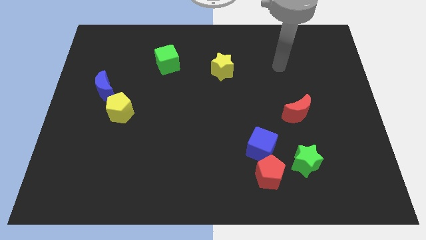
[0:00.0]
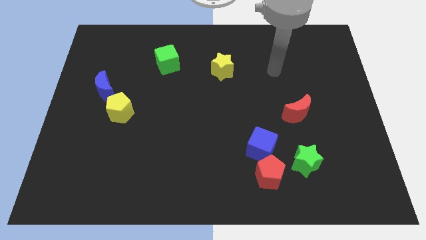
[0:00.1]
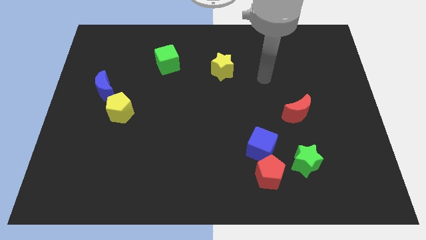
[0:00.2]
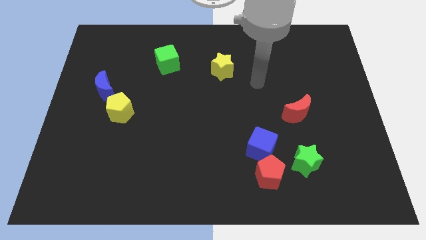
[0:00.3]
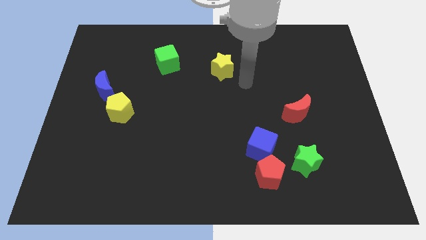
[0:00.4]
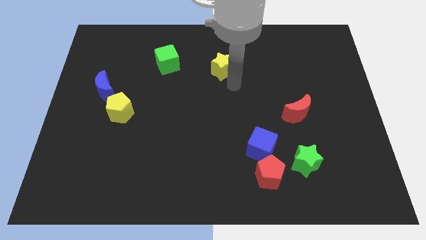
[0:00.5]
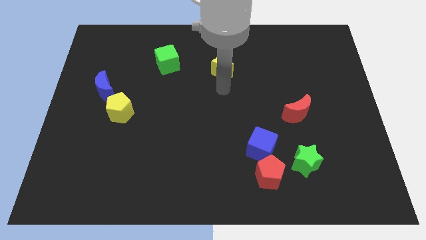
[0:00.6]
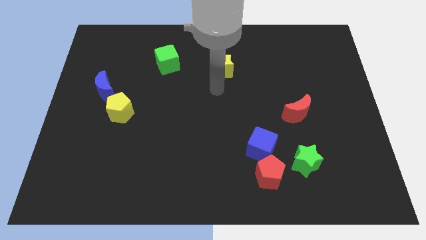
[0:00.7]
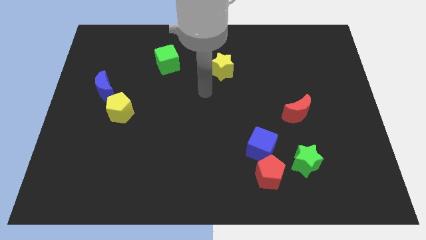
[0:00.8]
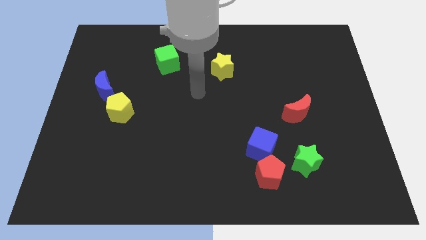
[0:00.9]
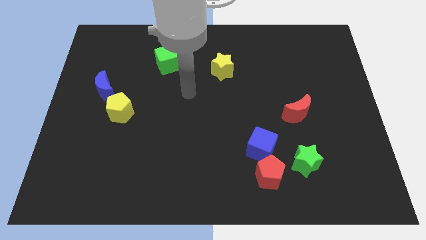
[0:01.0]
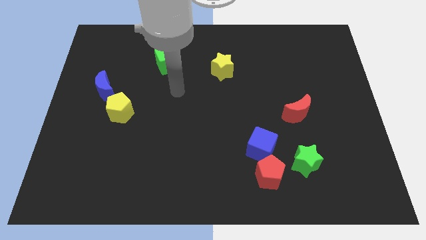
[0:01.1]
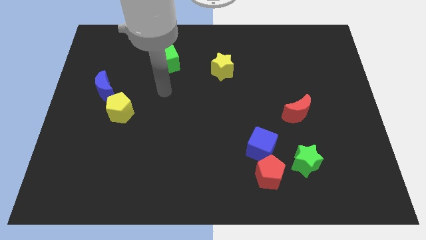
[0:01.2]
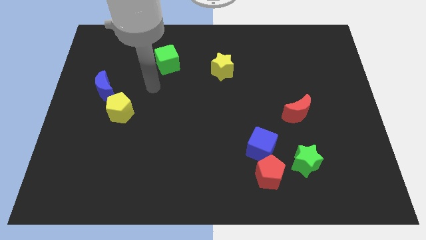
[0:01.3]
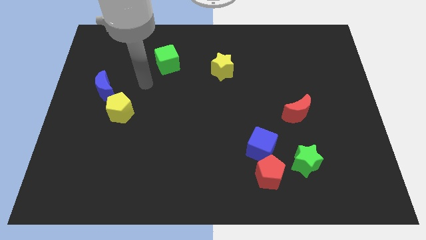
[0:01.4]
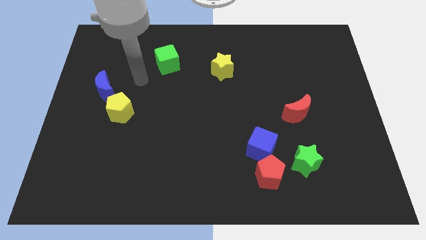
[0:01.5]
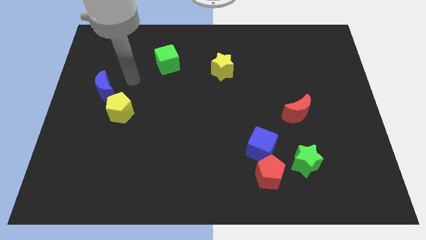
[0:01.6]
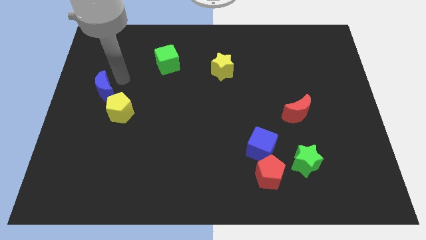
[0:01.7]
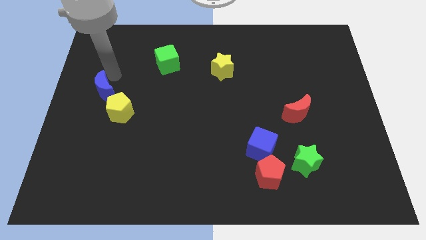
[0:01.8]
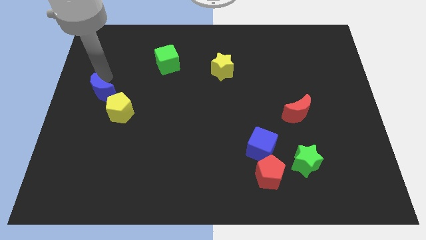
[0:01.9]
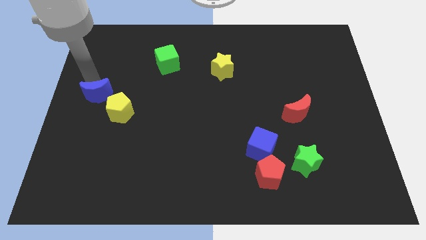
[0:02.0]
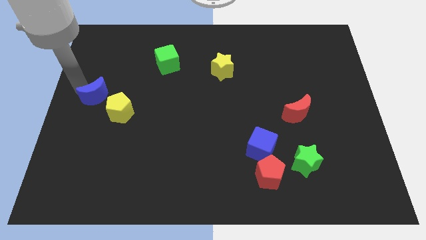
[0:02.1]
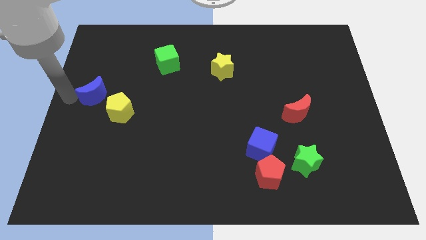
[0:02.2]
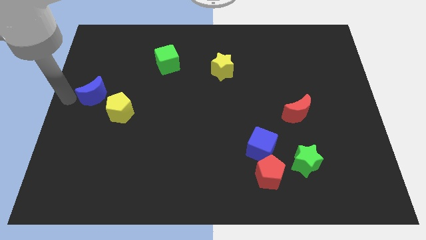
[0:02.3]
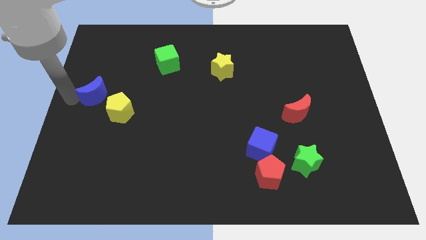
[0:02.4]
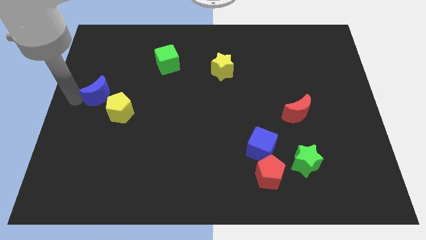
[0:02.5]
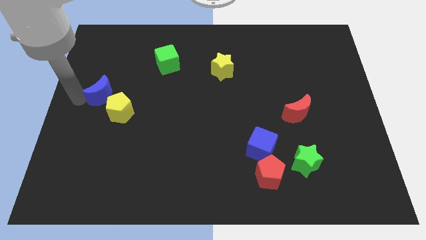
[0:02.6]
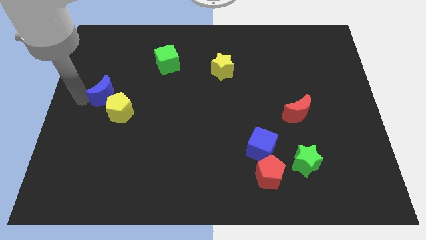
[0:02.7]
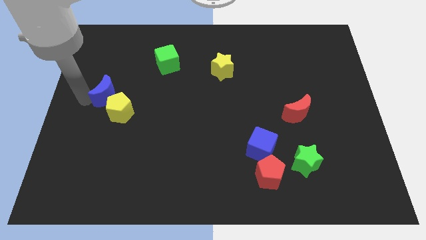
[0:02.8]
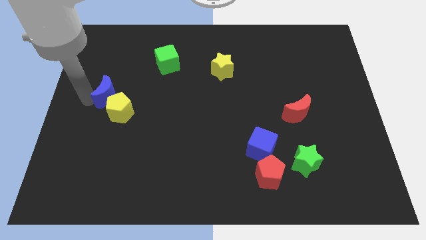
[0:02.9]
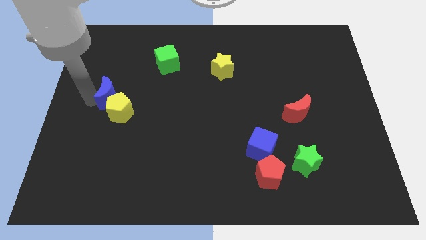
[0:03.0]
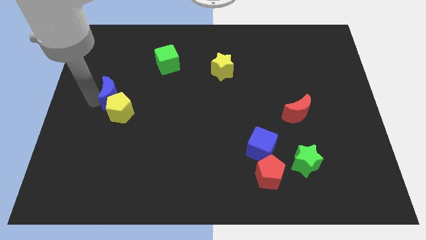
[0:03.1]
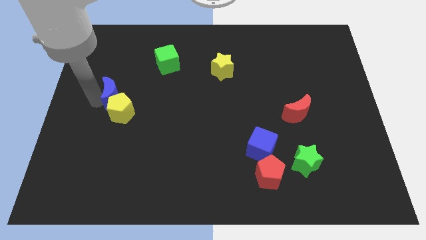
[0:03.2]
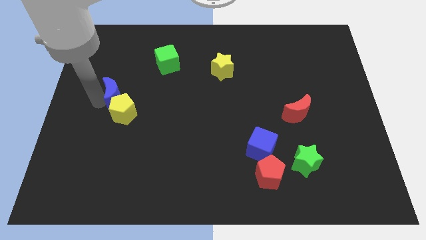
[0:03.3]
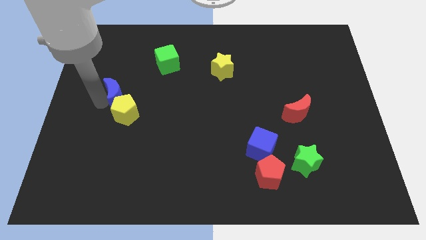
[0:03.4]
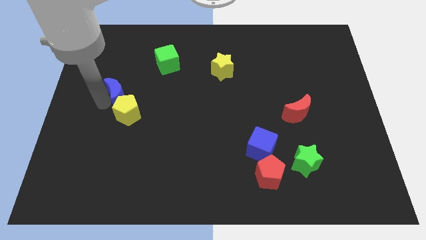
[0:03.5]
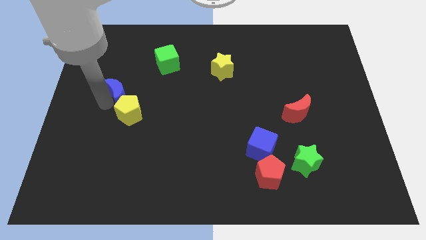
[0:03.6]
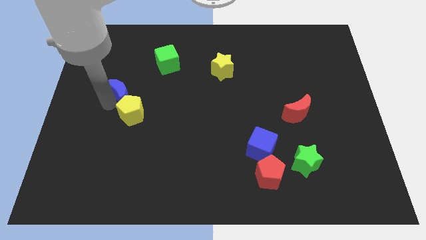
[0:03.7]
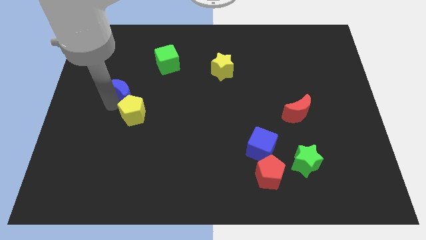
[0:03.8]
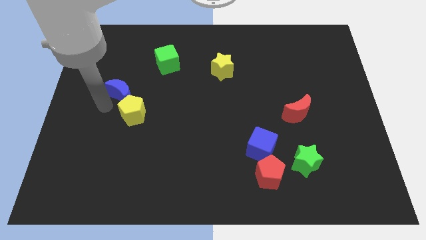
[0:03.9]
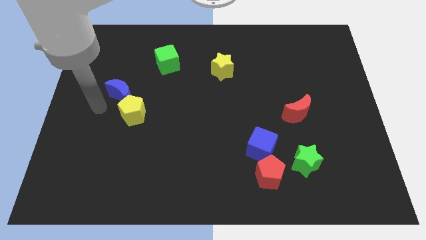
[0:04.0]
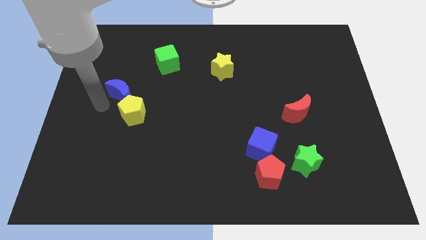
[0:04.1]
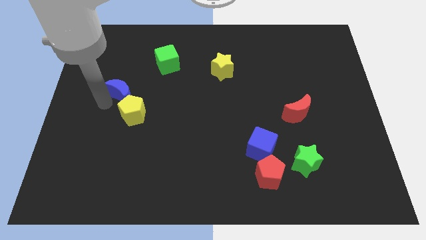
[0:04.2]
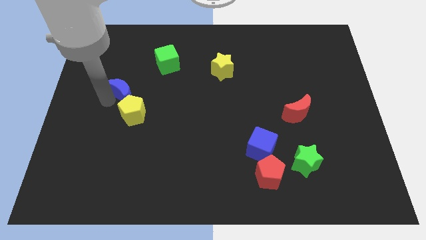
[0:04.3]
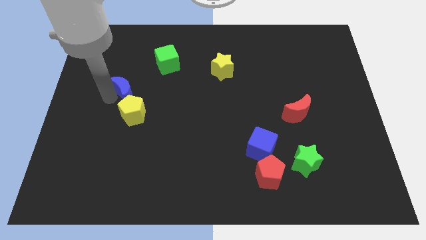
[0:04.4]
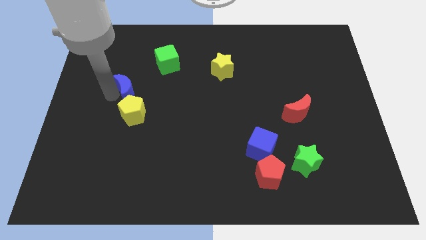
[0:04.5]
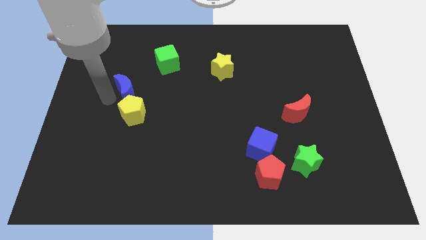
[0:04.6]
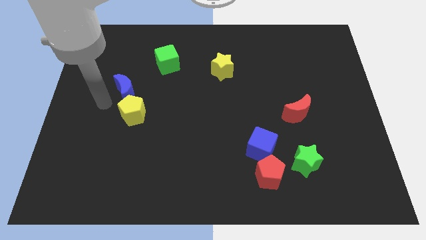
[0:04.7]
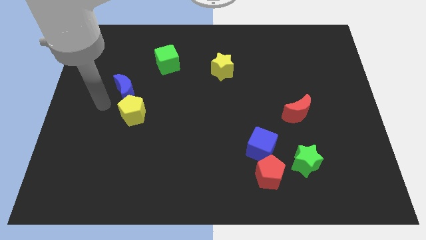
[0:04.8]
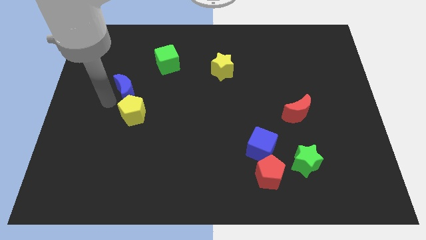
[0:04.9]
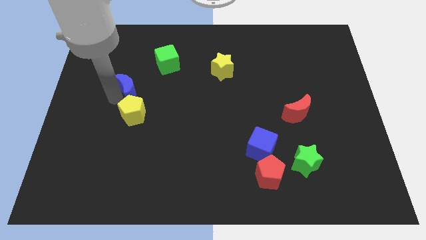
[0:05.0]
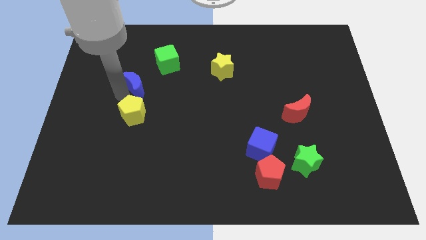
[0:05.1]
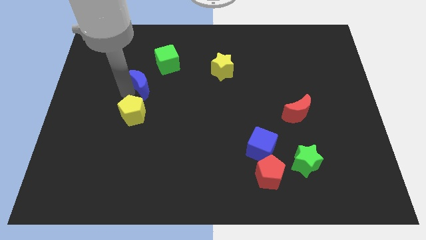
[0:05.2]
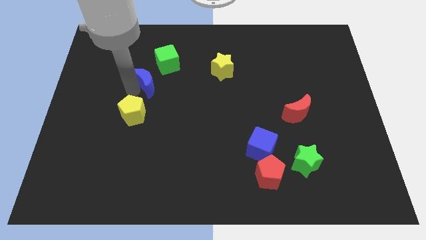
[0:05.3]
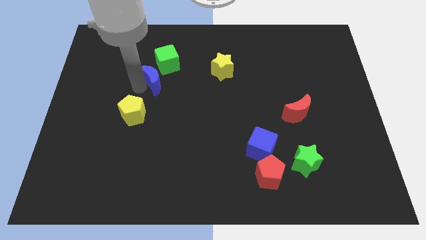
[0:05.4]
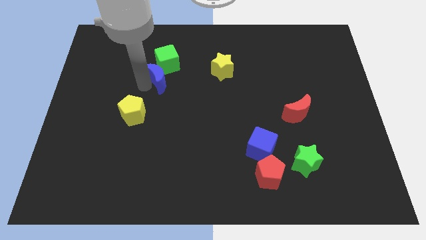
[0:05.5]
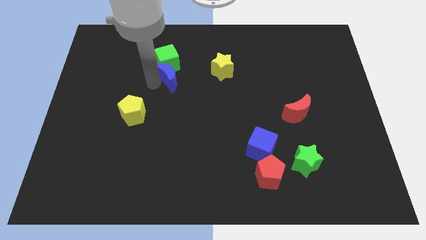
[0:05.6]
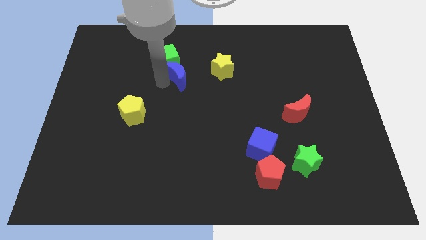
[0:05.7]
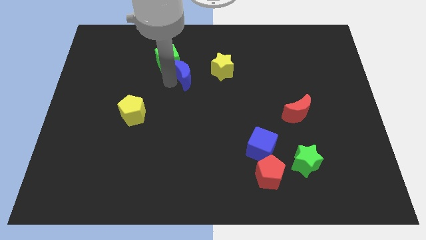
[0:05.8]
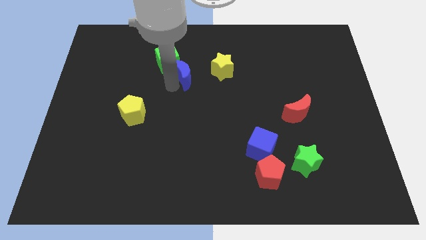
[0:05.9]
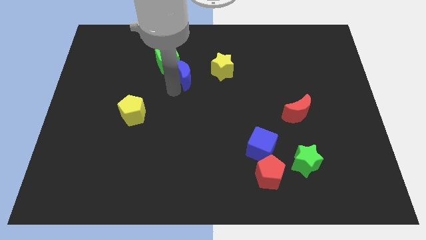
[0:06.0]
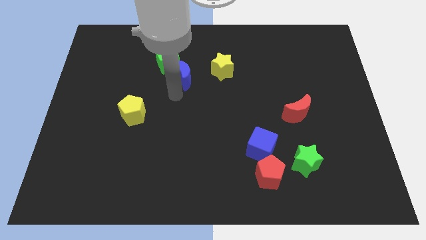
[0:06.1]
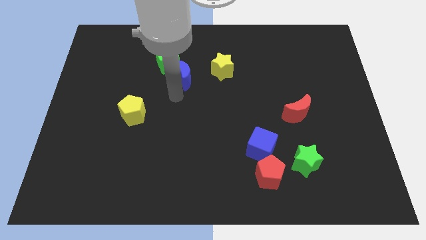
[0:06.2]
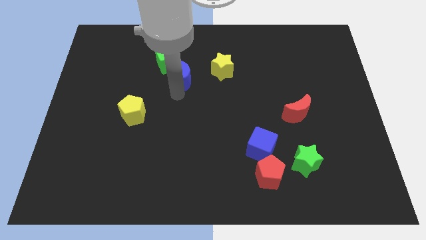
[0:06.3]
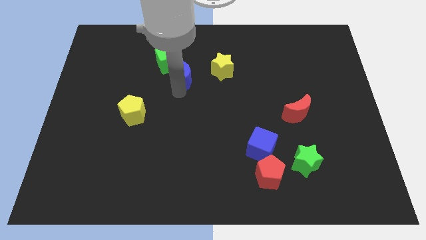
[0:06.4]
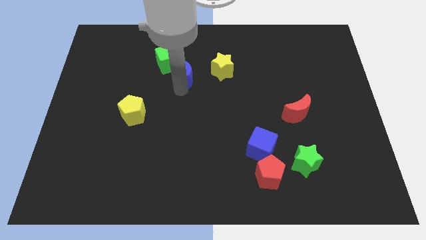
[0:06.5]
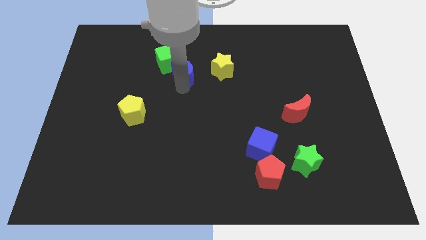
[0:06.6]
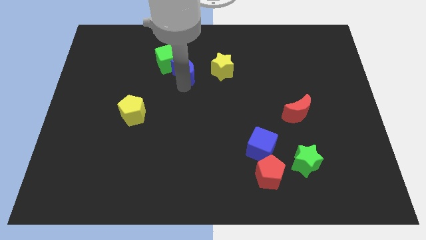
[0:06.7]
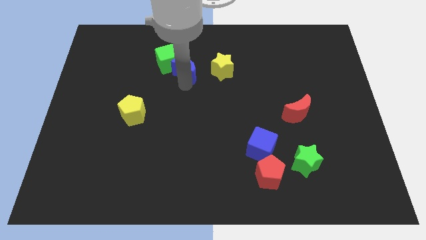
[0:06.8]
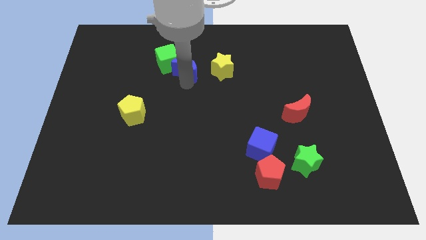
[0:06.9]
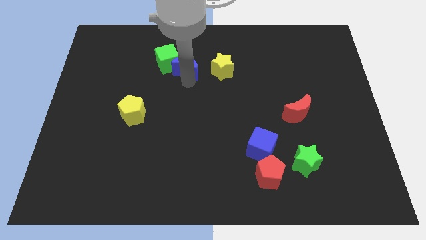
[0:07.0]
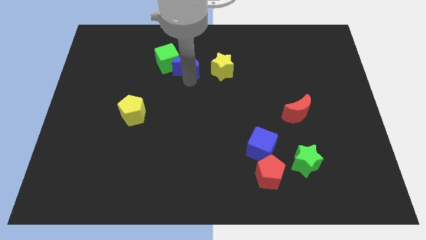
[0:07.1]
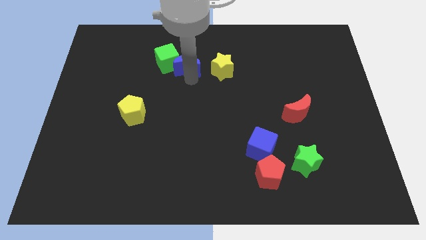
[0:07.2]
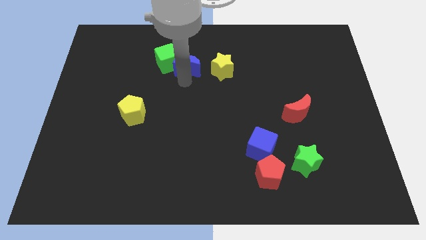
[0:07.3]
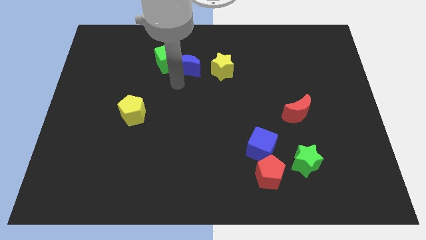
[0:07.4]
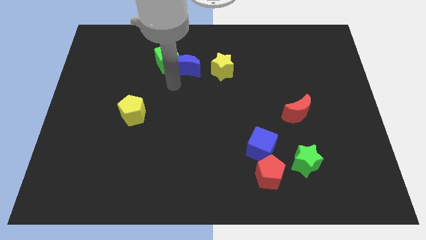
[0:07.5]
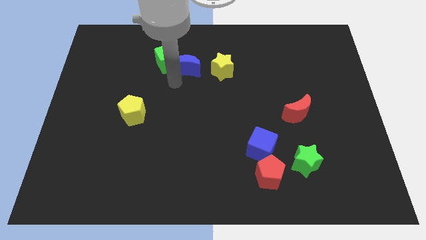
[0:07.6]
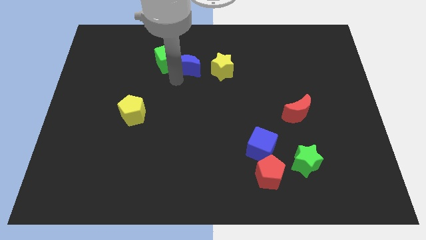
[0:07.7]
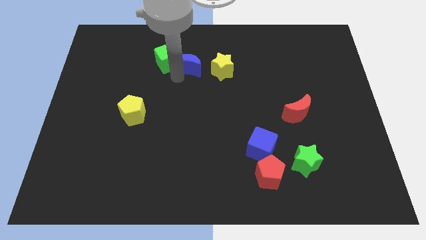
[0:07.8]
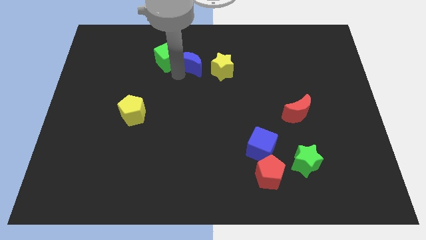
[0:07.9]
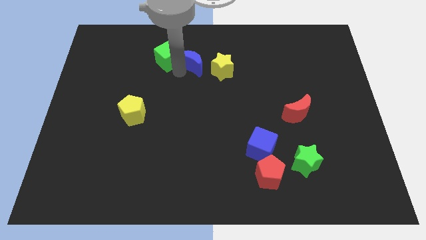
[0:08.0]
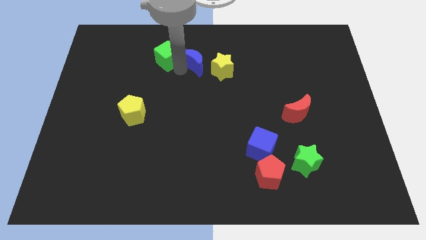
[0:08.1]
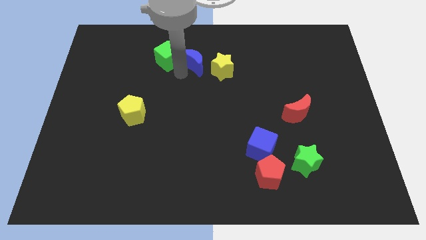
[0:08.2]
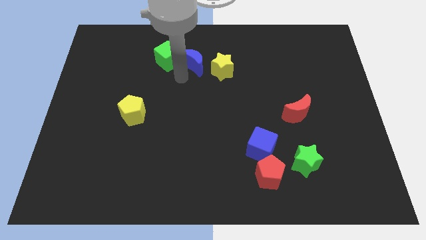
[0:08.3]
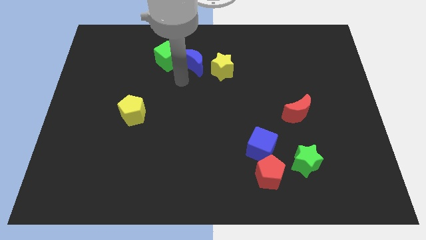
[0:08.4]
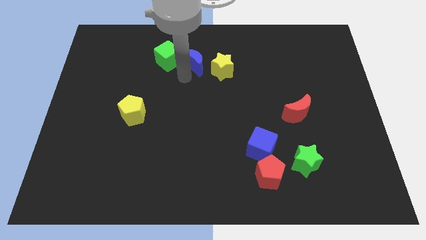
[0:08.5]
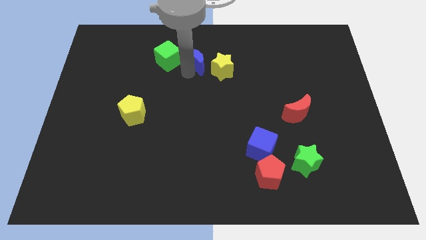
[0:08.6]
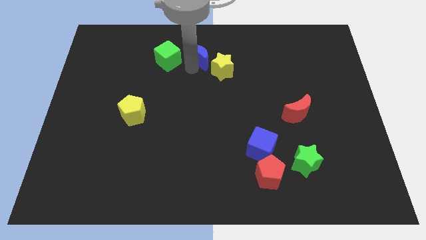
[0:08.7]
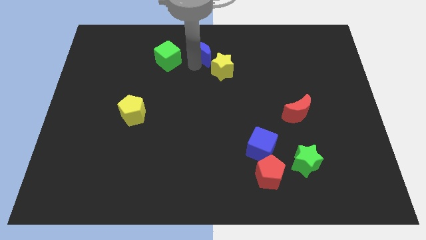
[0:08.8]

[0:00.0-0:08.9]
push the blue moon to the top
